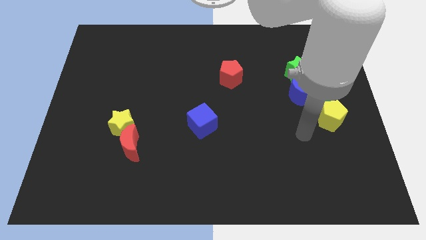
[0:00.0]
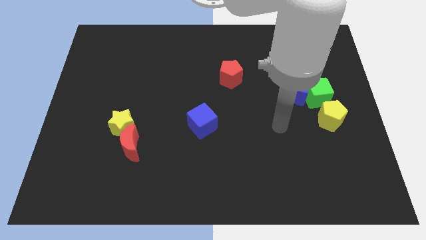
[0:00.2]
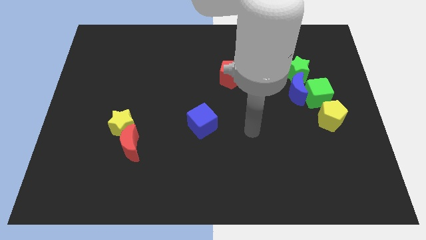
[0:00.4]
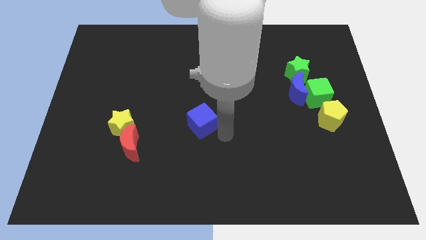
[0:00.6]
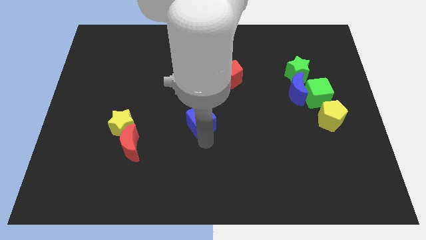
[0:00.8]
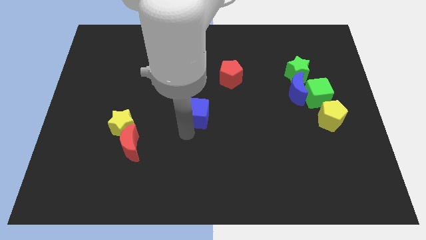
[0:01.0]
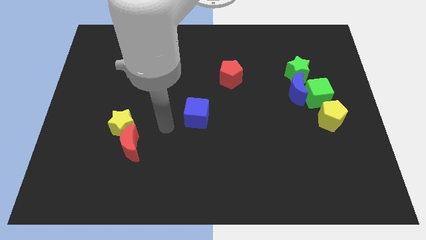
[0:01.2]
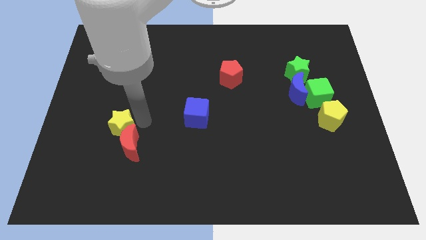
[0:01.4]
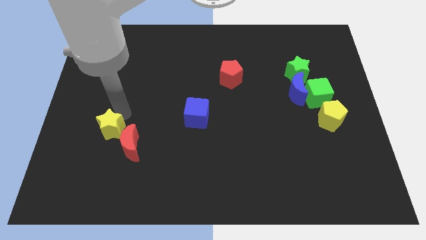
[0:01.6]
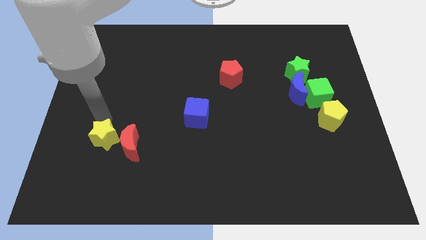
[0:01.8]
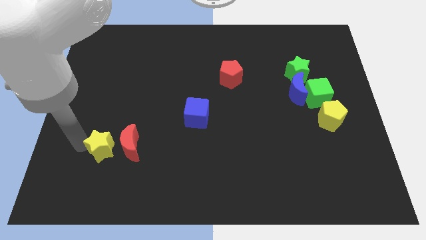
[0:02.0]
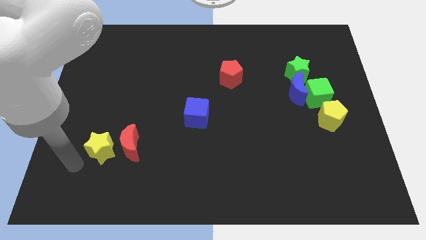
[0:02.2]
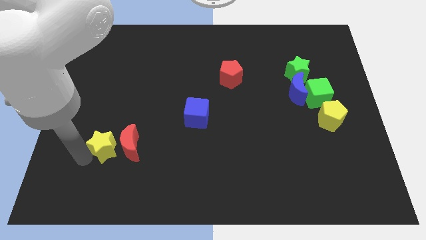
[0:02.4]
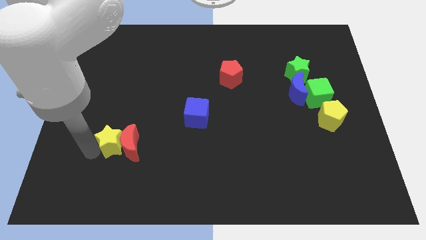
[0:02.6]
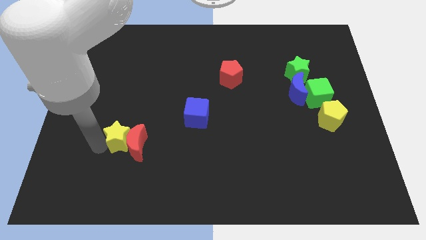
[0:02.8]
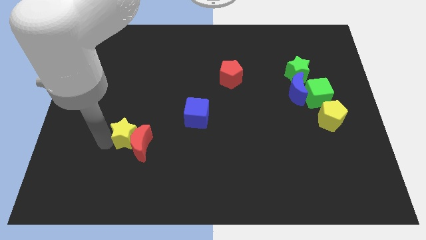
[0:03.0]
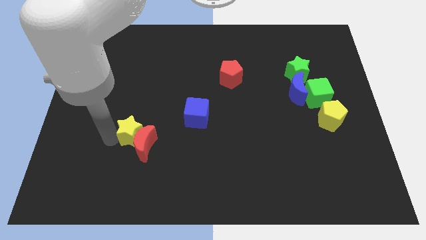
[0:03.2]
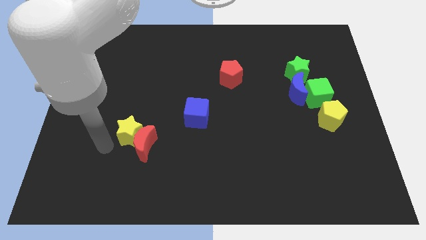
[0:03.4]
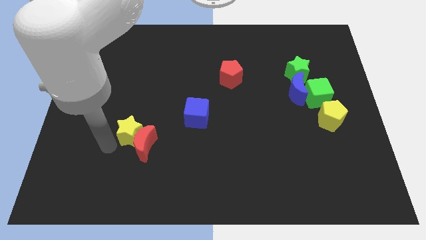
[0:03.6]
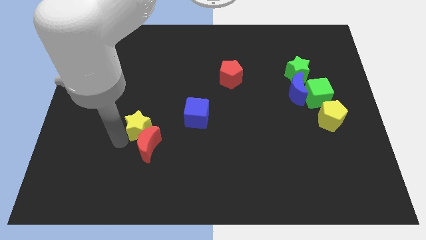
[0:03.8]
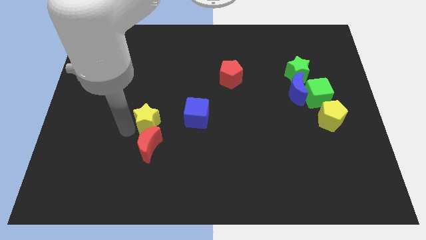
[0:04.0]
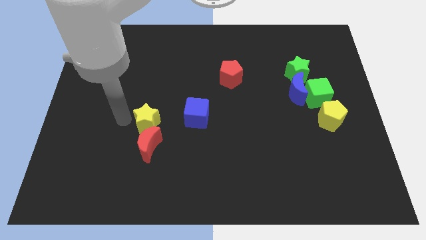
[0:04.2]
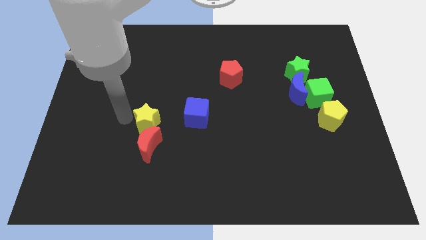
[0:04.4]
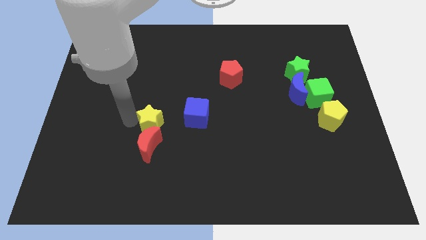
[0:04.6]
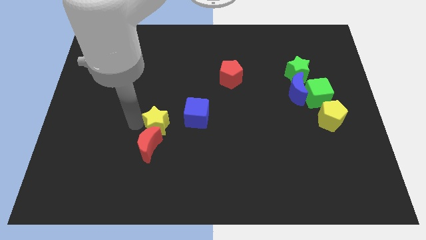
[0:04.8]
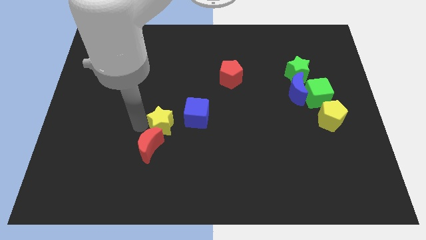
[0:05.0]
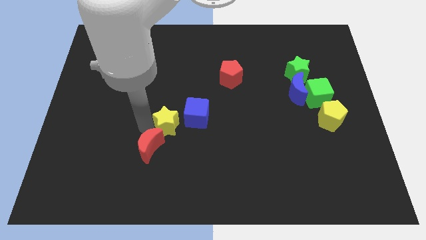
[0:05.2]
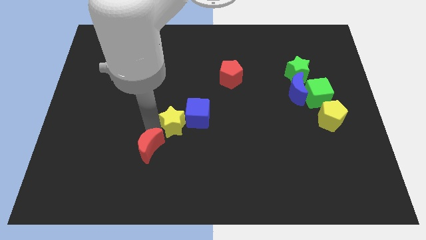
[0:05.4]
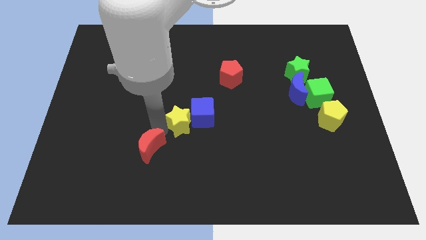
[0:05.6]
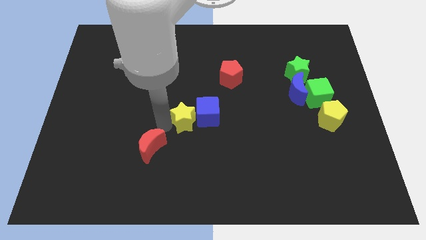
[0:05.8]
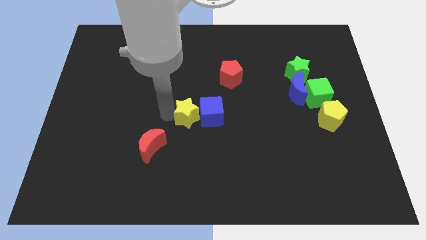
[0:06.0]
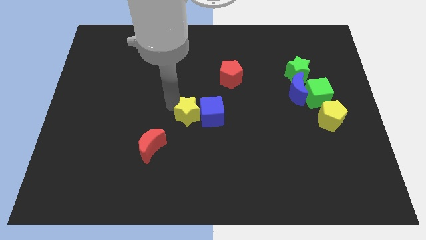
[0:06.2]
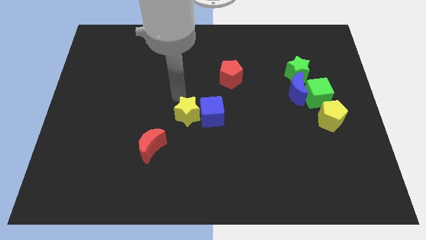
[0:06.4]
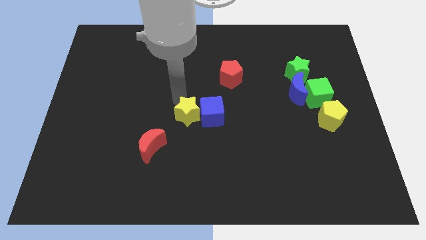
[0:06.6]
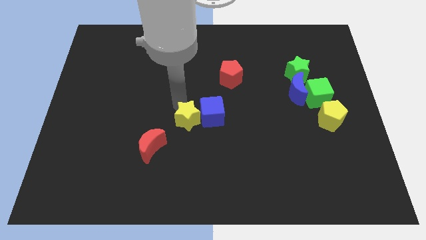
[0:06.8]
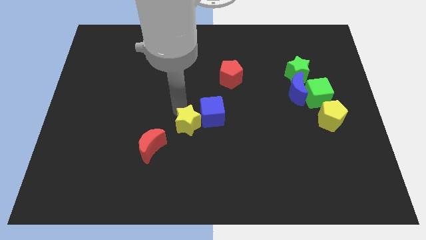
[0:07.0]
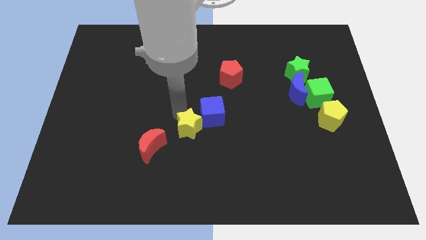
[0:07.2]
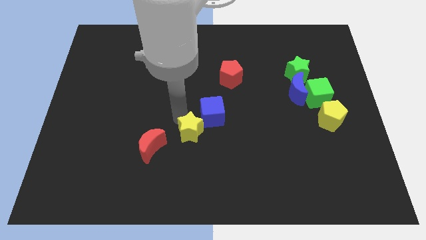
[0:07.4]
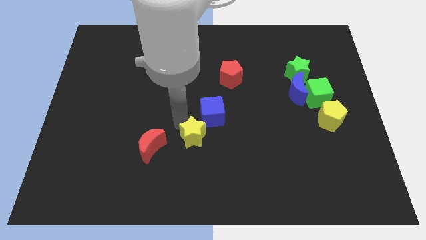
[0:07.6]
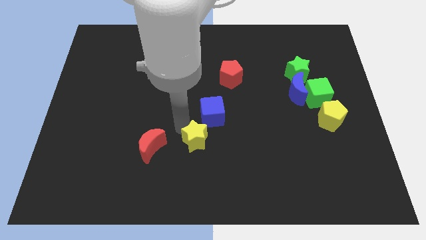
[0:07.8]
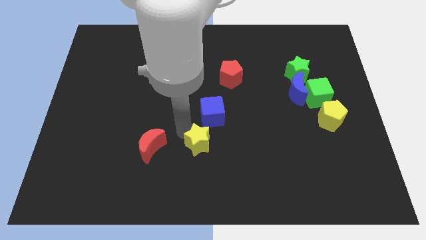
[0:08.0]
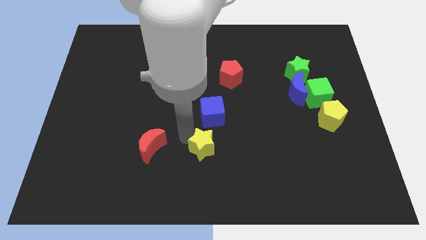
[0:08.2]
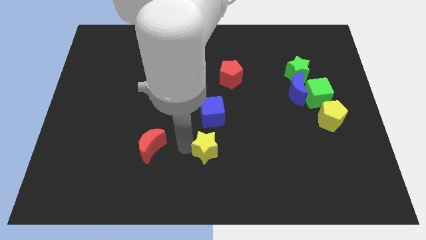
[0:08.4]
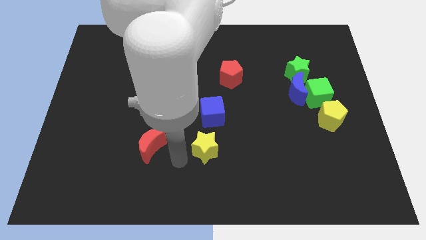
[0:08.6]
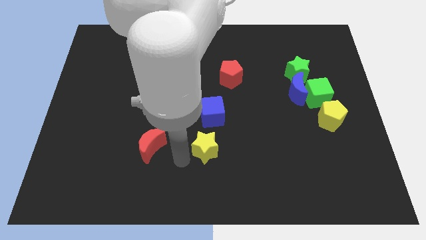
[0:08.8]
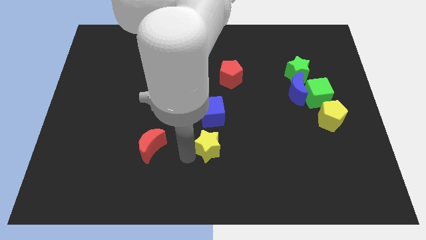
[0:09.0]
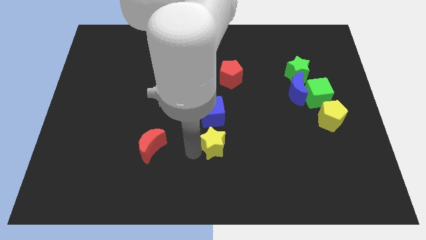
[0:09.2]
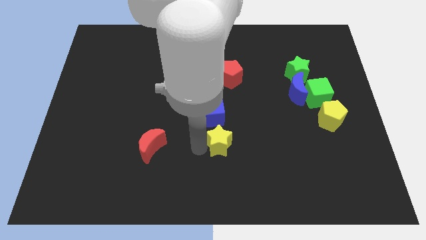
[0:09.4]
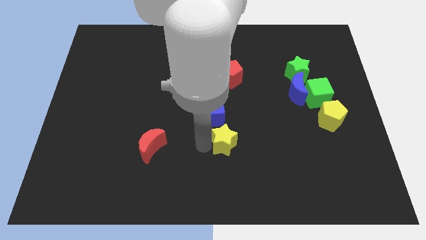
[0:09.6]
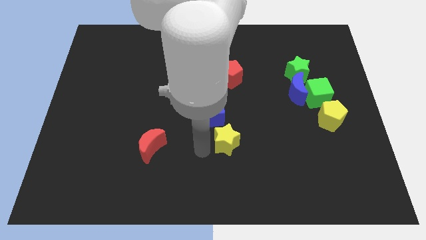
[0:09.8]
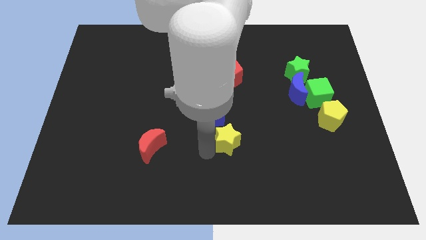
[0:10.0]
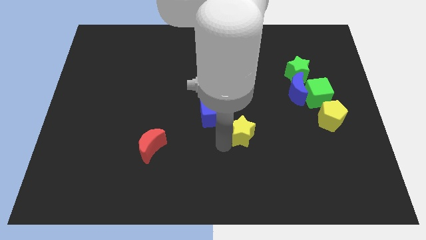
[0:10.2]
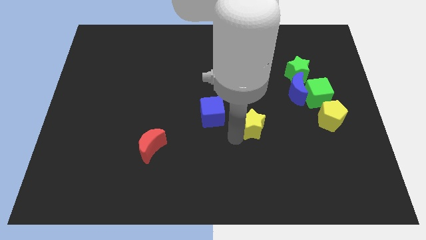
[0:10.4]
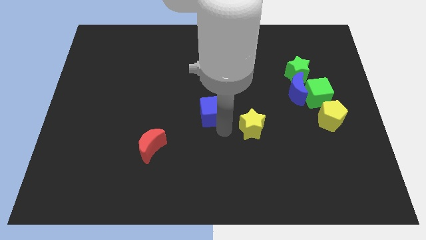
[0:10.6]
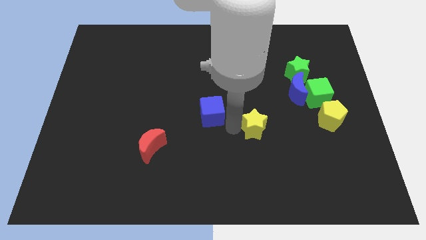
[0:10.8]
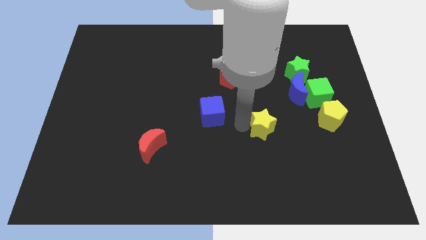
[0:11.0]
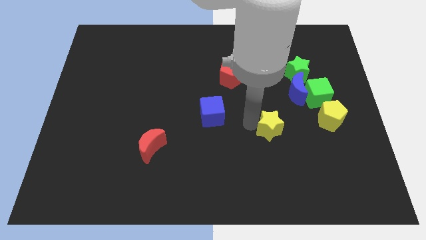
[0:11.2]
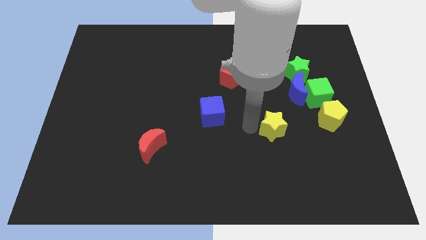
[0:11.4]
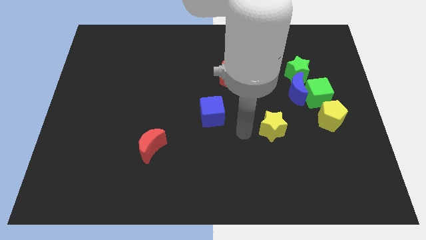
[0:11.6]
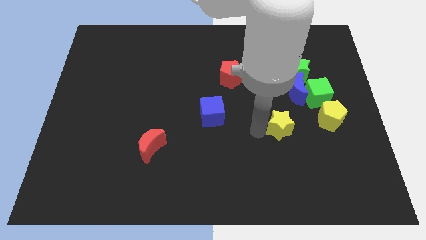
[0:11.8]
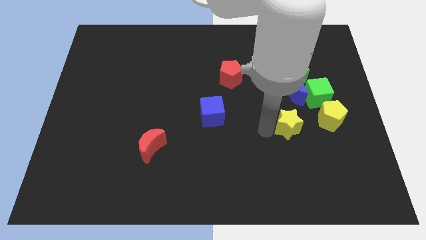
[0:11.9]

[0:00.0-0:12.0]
slide the yellow star to the bottom of the blue moon

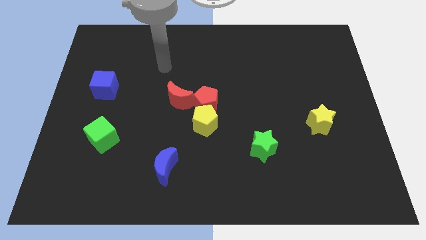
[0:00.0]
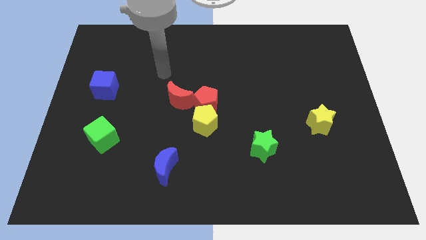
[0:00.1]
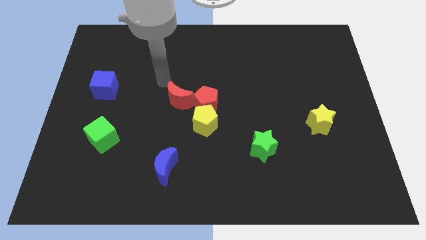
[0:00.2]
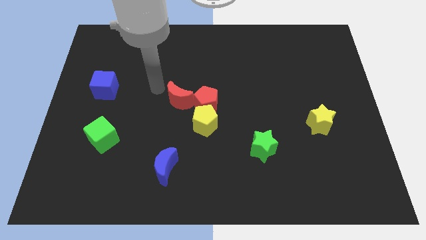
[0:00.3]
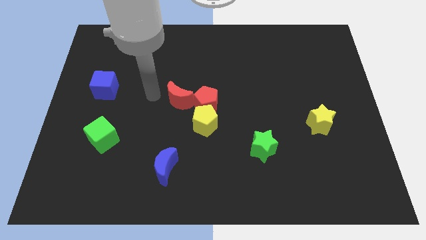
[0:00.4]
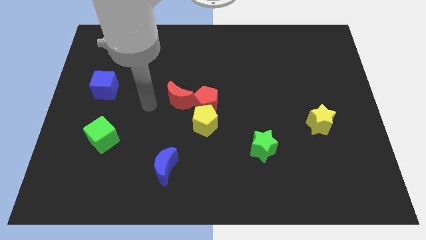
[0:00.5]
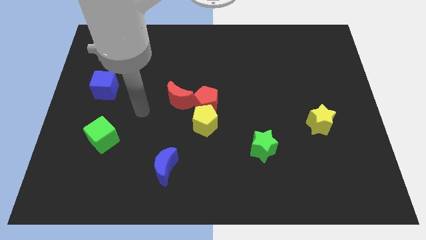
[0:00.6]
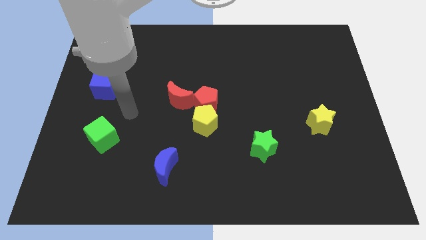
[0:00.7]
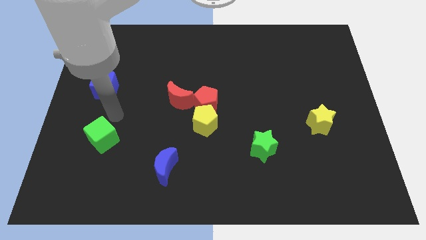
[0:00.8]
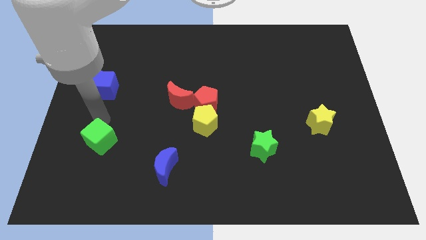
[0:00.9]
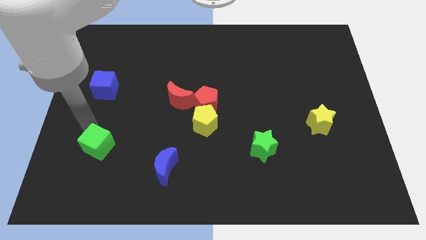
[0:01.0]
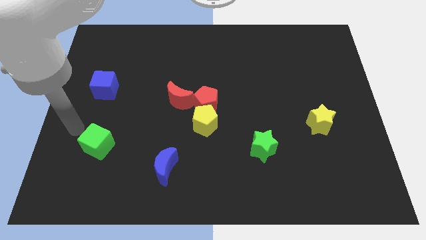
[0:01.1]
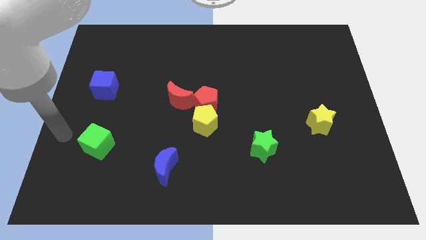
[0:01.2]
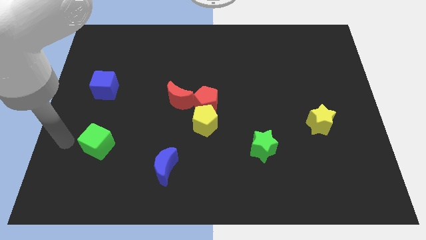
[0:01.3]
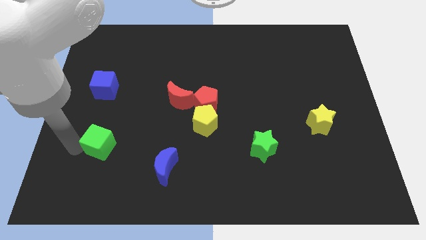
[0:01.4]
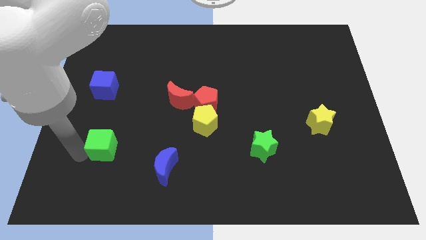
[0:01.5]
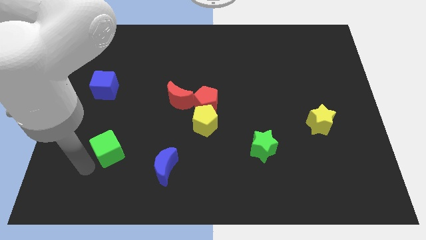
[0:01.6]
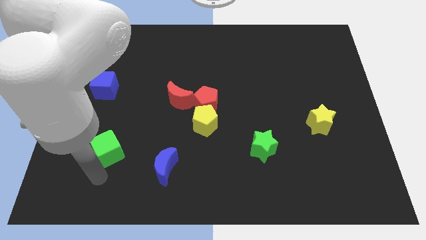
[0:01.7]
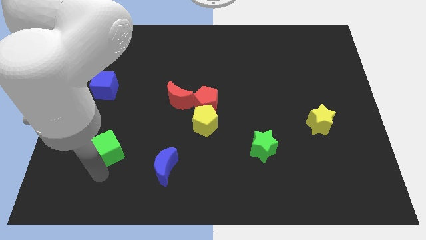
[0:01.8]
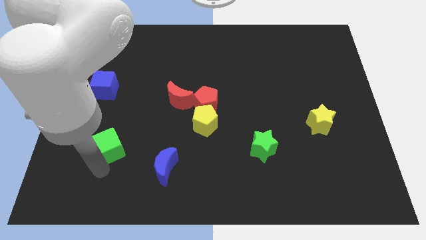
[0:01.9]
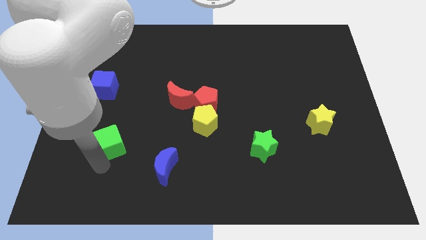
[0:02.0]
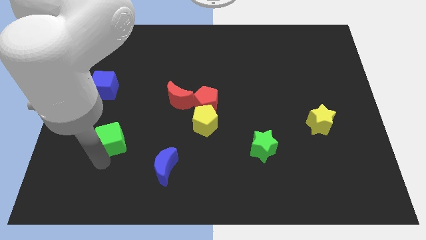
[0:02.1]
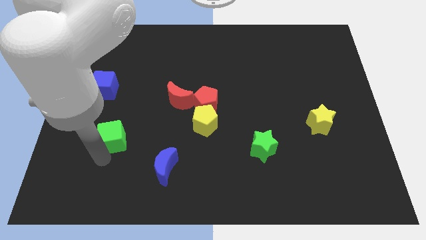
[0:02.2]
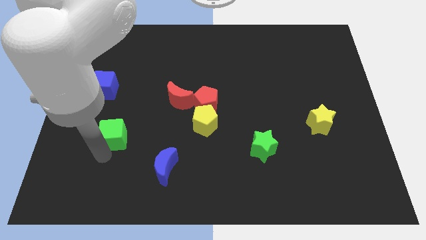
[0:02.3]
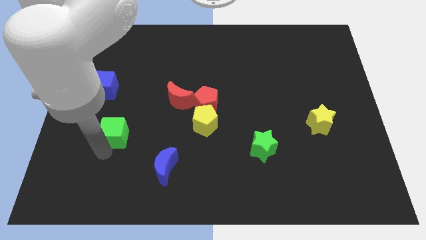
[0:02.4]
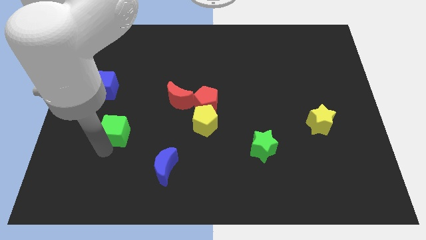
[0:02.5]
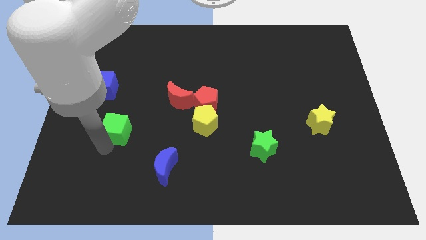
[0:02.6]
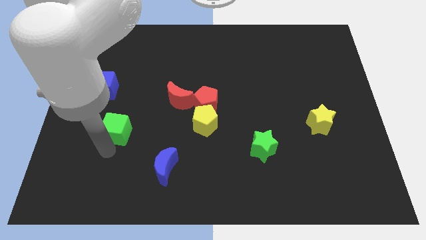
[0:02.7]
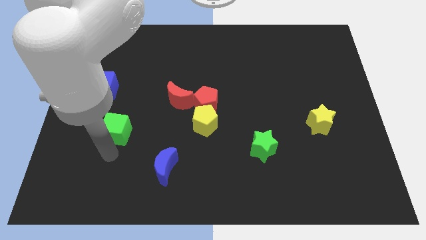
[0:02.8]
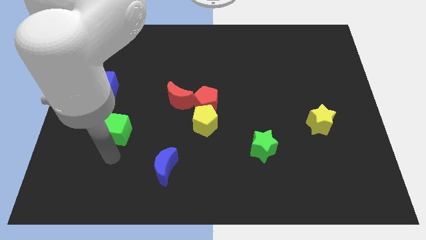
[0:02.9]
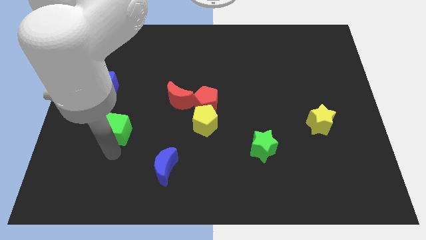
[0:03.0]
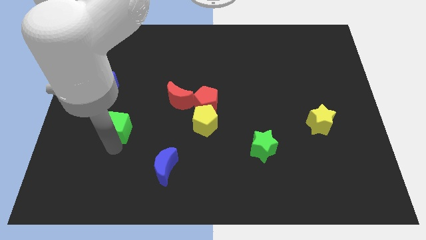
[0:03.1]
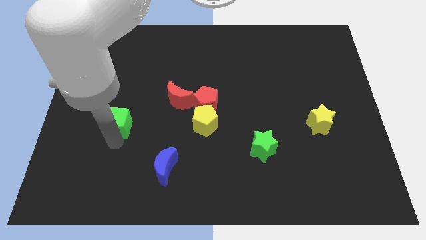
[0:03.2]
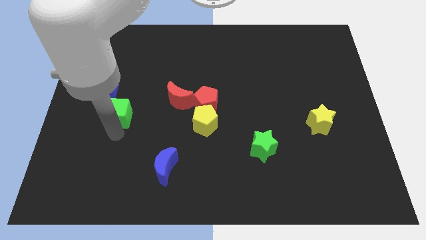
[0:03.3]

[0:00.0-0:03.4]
slide the green cube to the left of the red moon
